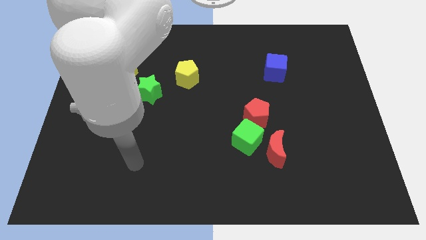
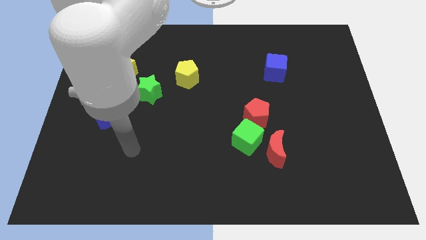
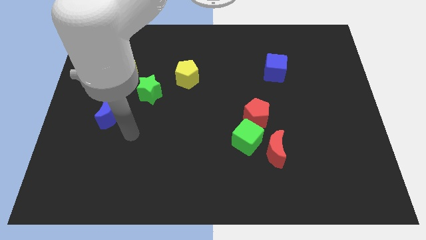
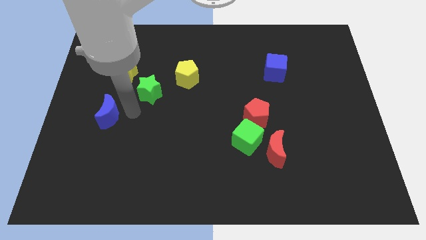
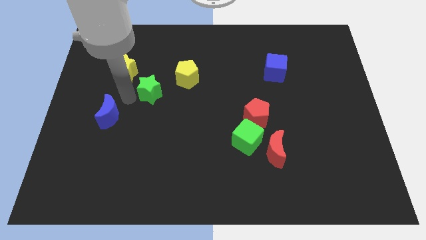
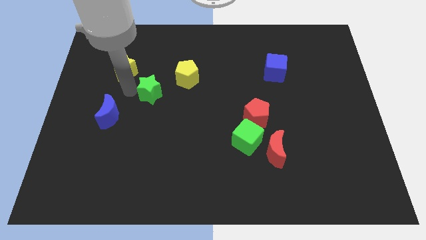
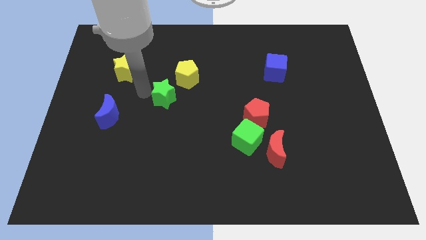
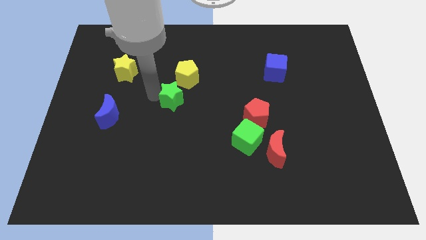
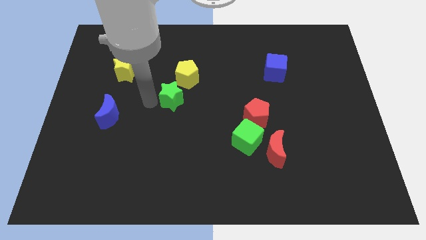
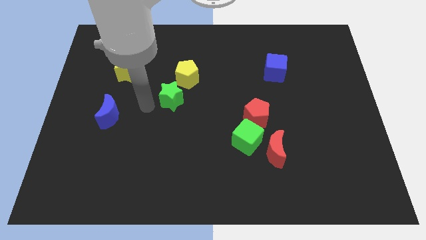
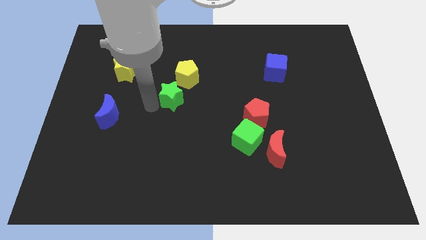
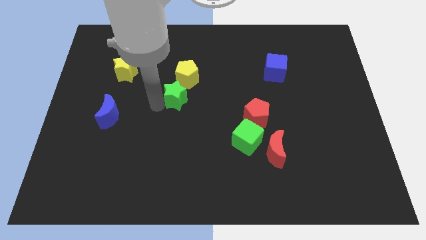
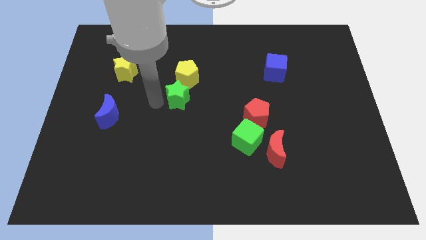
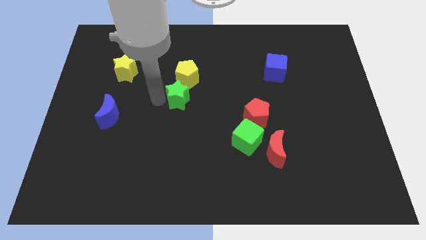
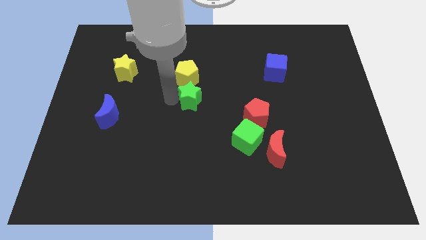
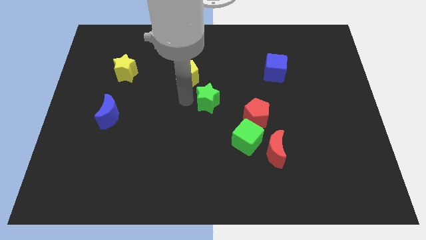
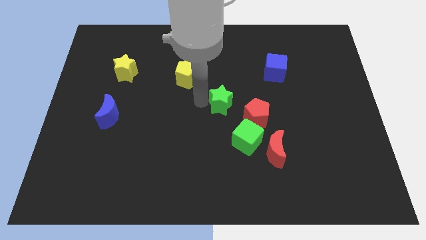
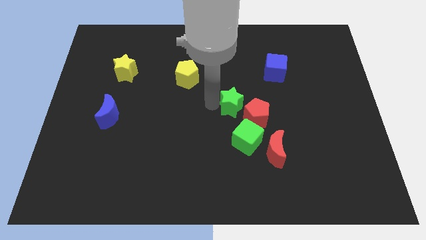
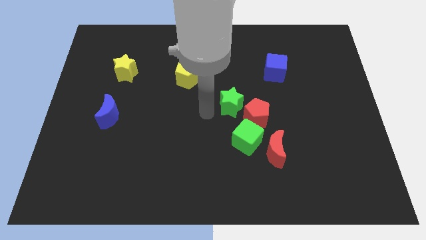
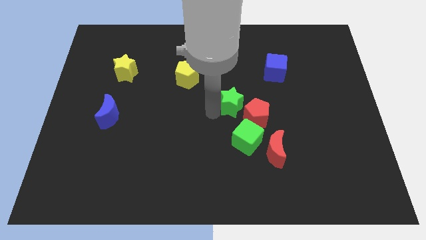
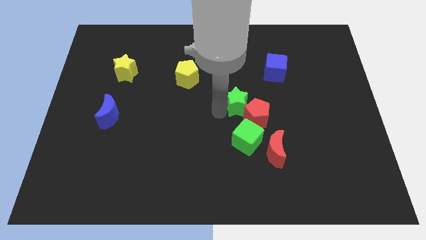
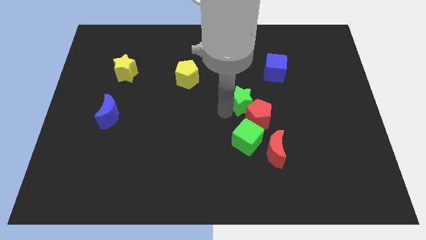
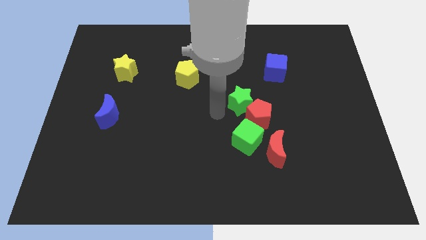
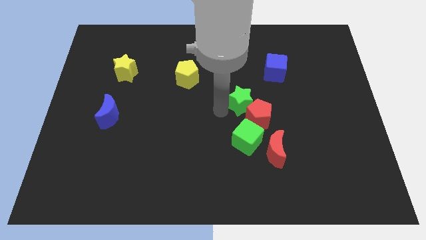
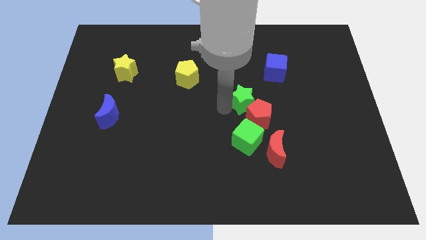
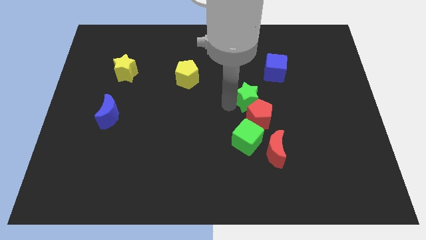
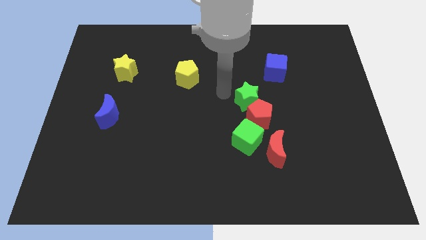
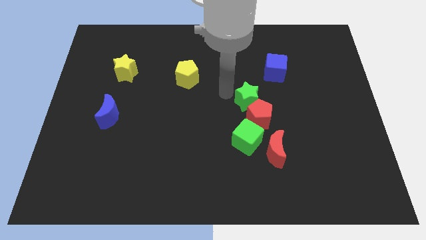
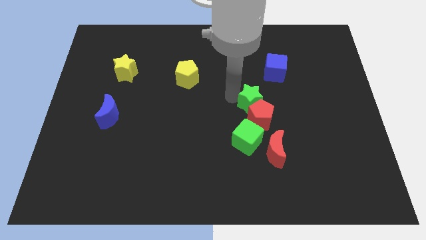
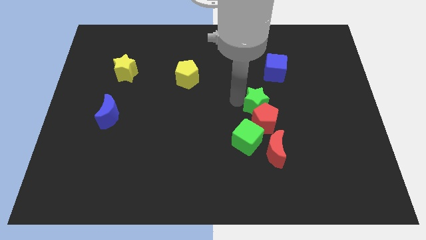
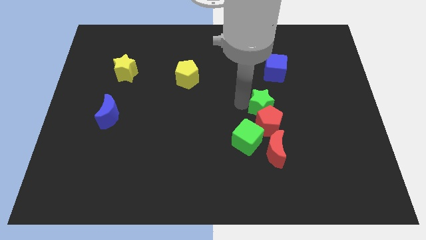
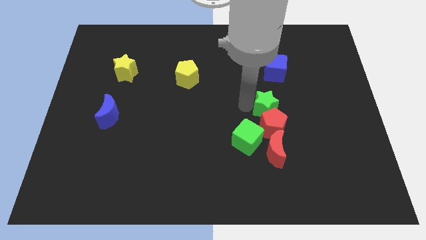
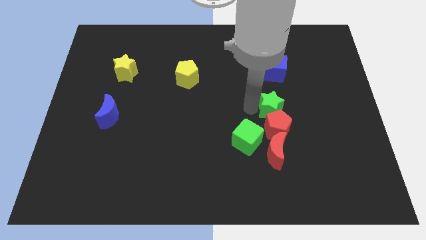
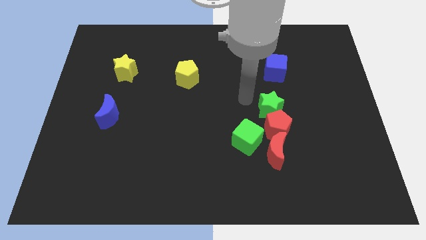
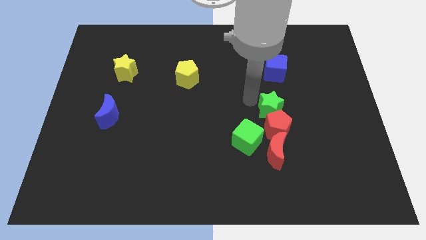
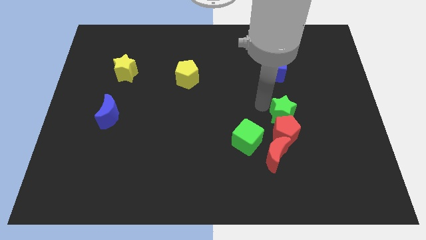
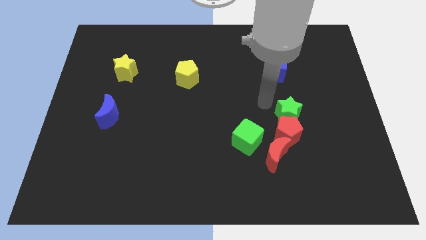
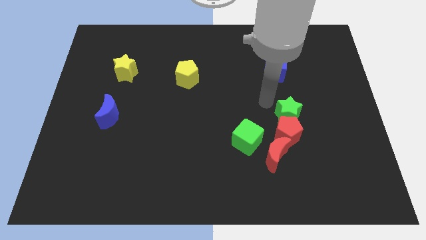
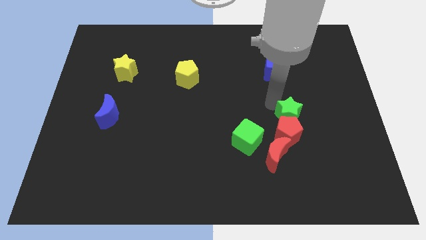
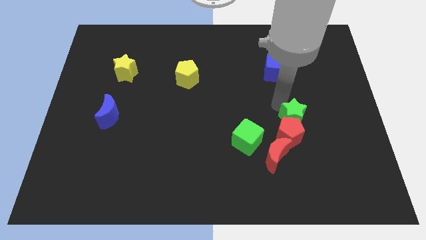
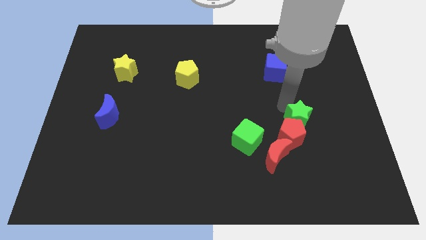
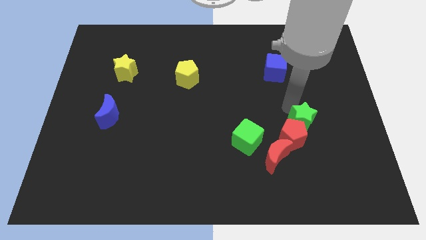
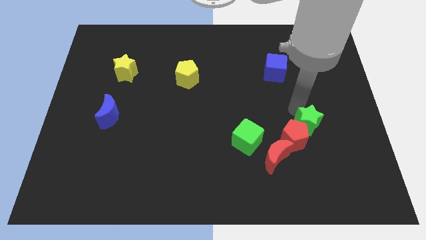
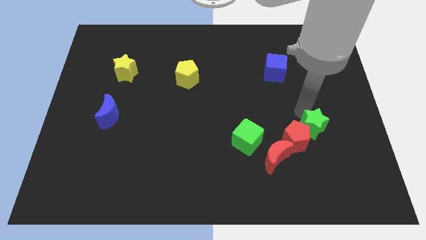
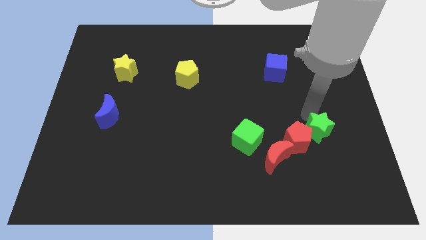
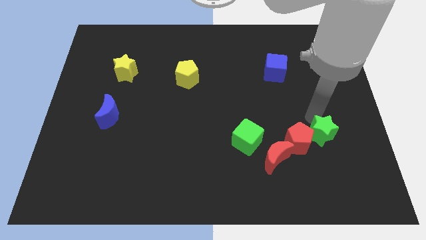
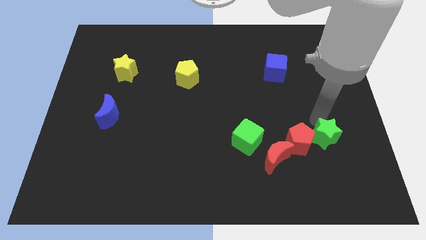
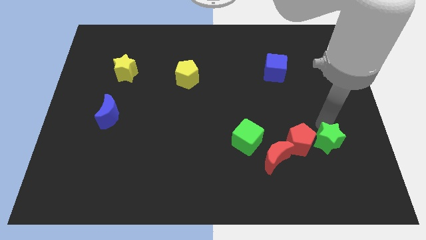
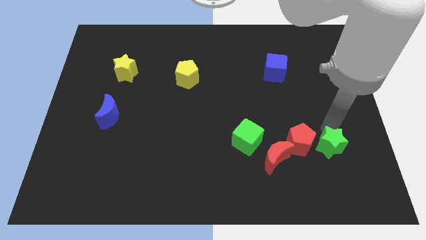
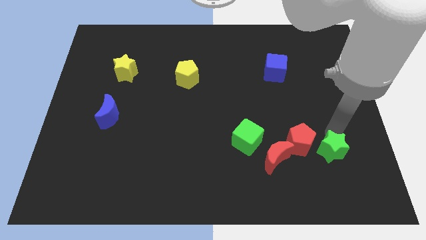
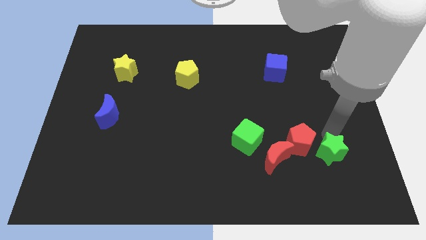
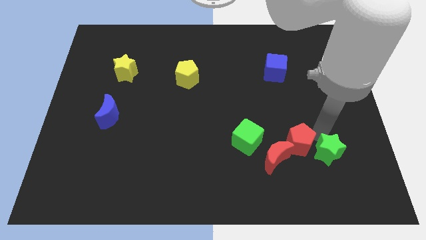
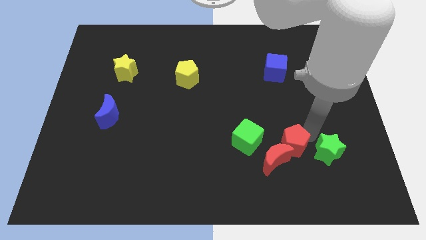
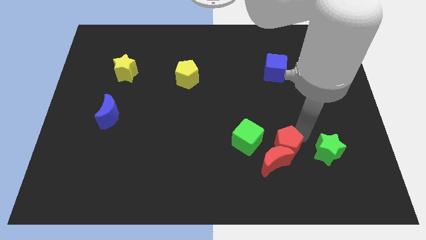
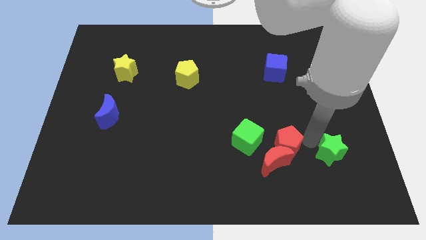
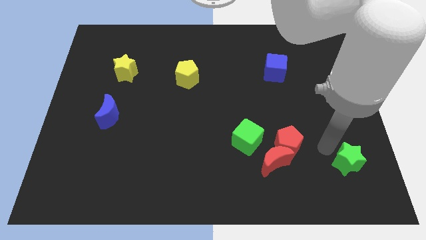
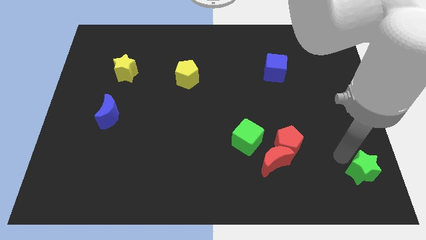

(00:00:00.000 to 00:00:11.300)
move the green star to the lower right corner

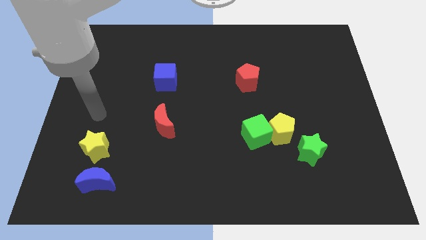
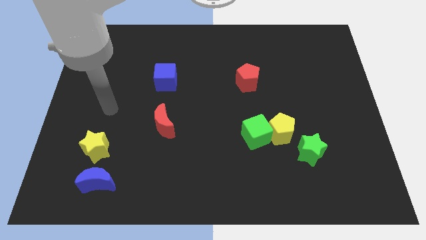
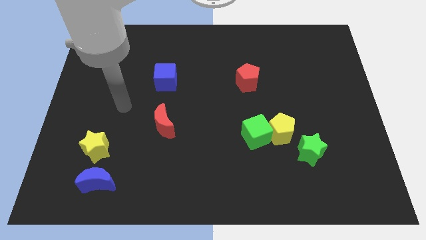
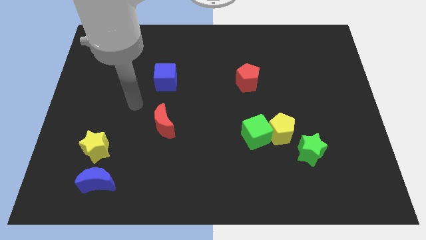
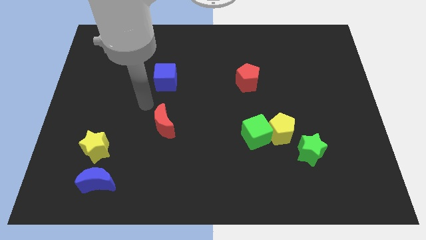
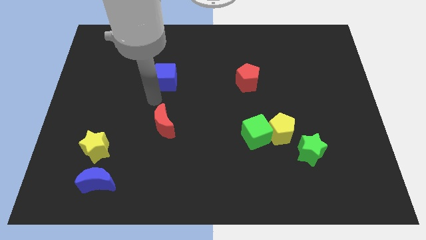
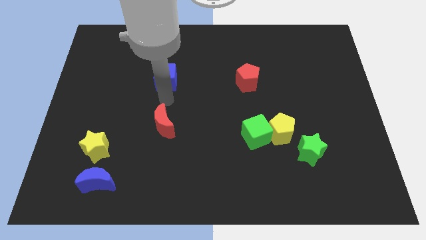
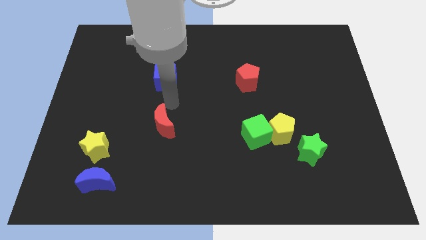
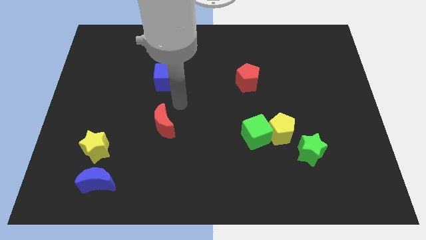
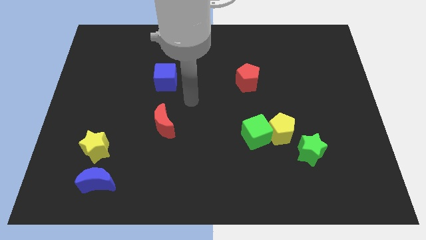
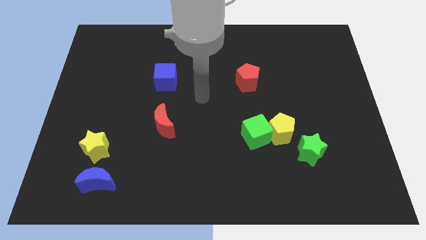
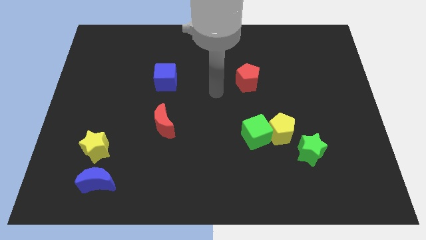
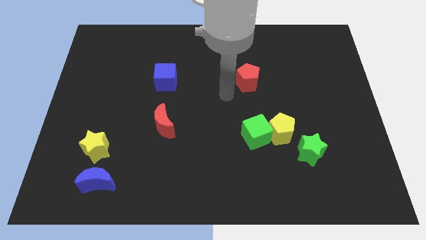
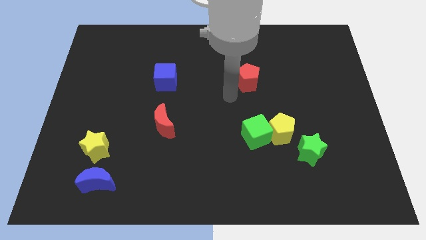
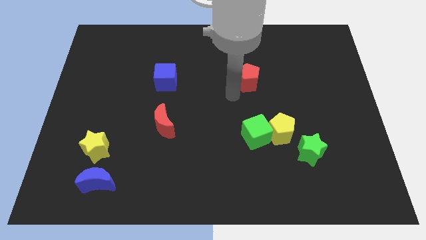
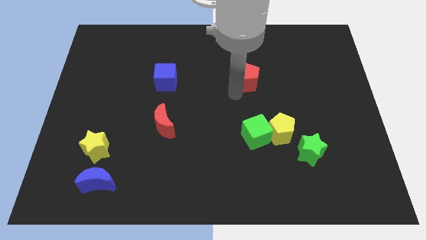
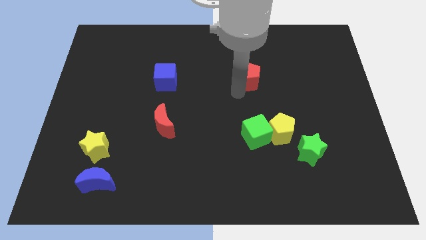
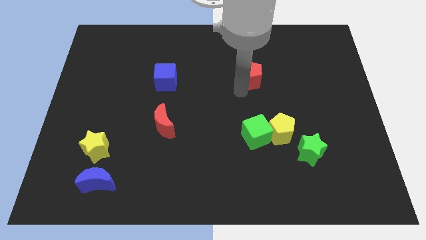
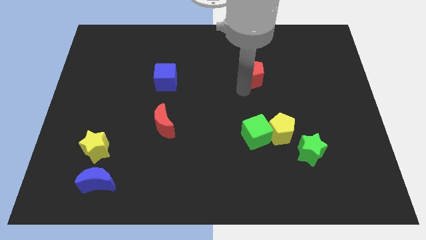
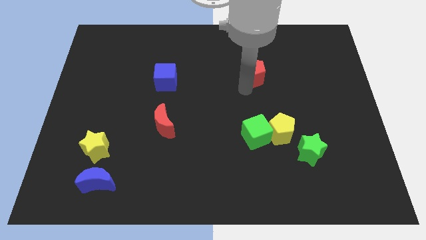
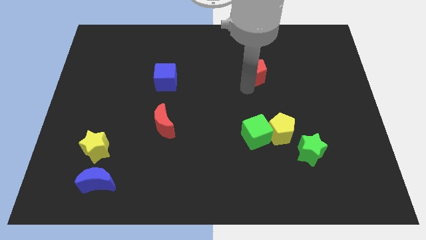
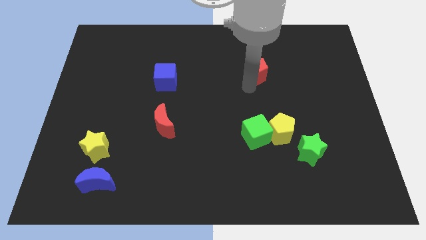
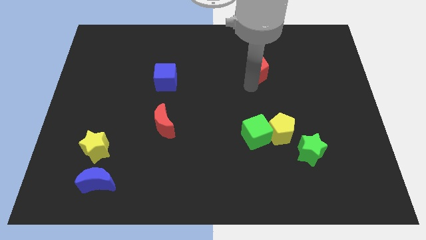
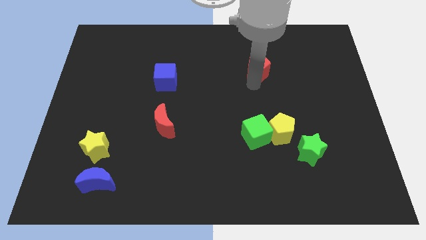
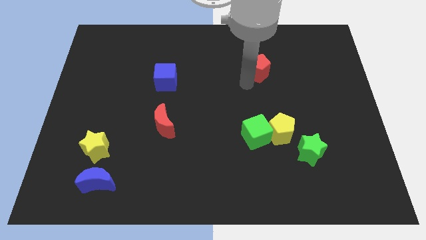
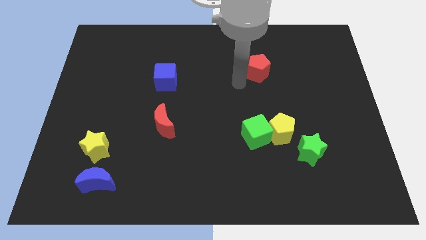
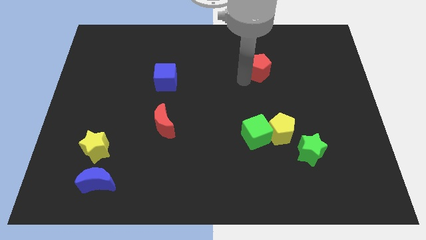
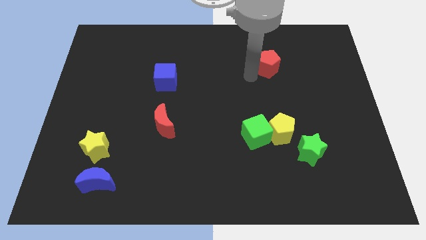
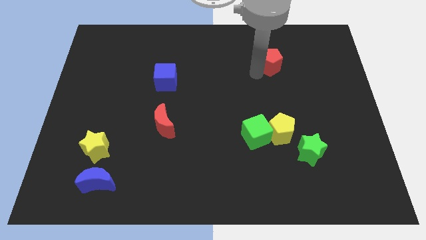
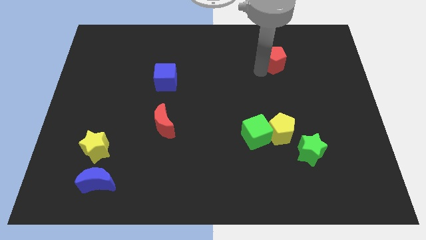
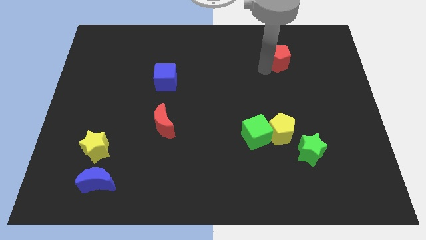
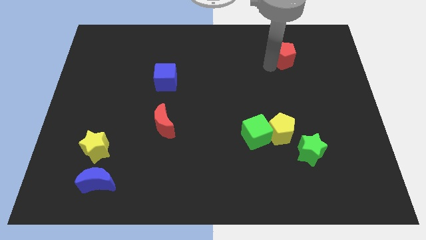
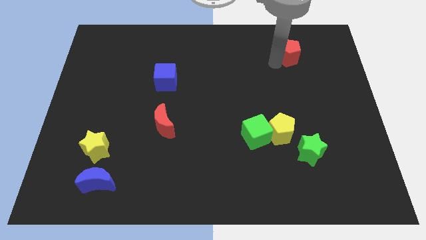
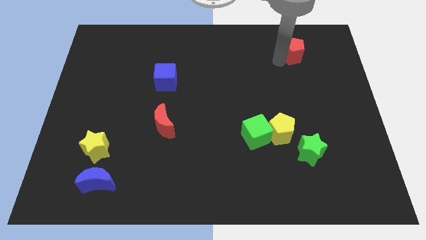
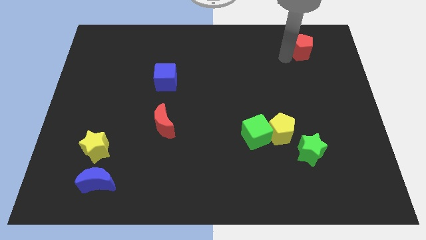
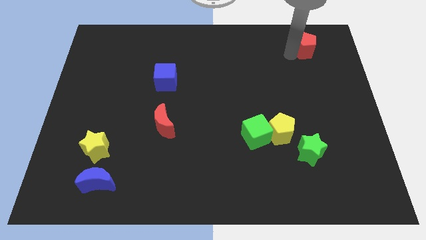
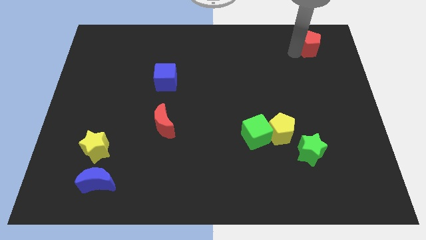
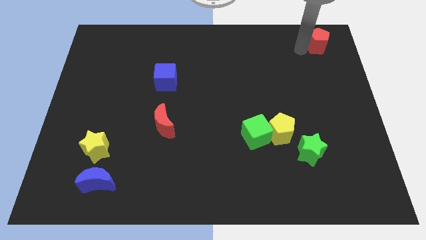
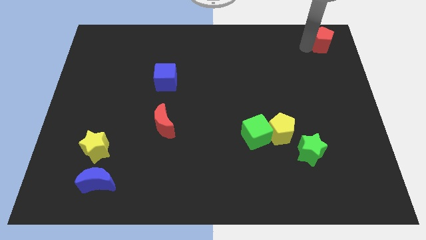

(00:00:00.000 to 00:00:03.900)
move the red pentagon to the top right
